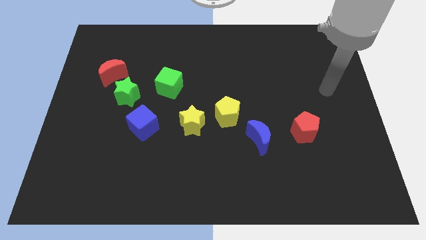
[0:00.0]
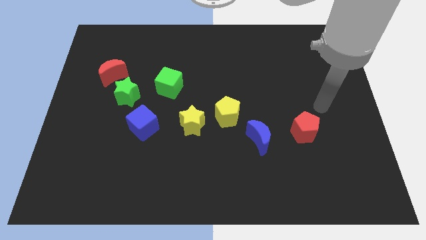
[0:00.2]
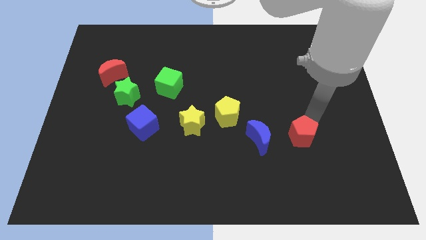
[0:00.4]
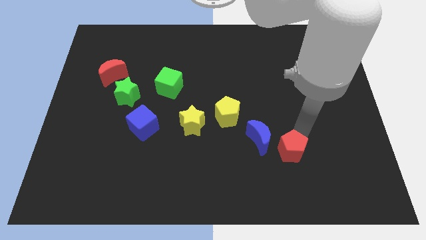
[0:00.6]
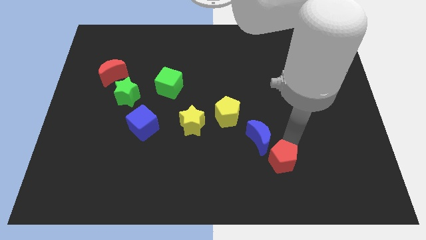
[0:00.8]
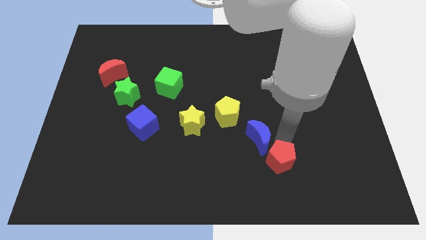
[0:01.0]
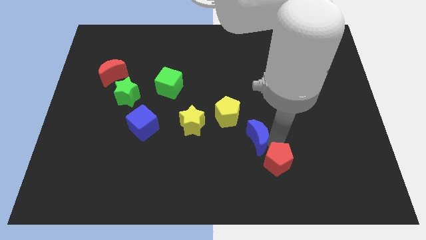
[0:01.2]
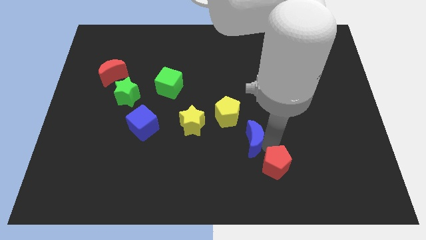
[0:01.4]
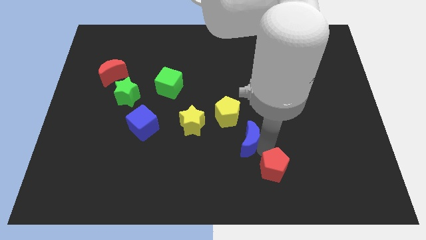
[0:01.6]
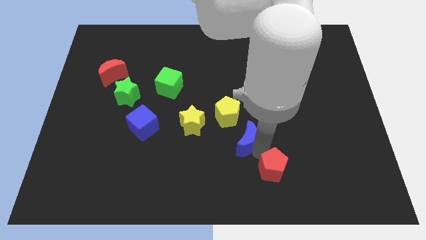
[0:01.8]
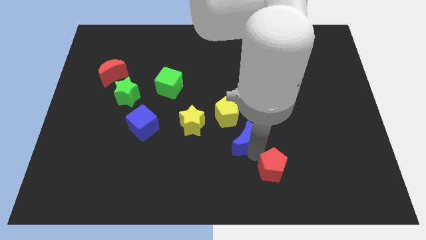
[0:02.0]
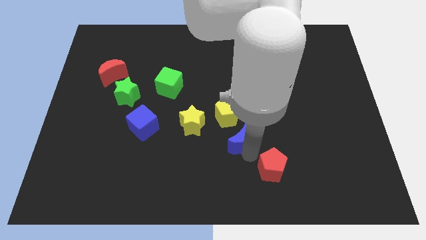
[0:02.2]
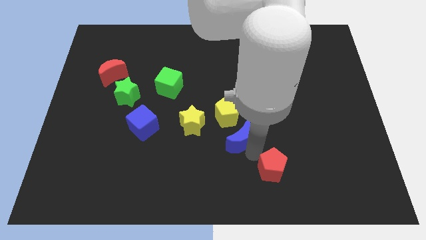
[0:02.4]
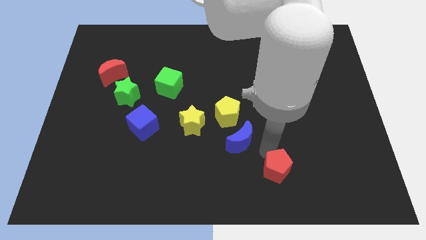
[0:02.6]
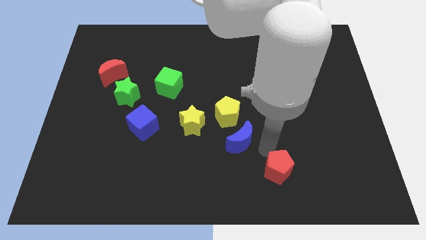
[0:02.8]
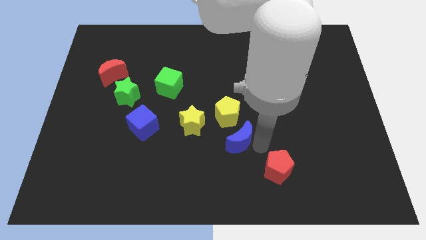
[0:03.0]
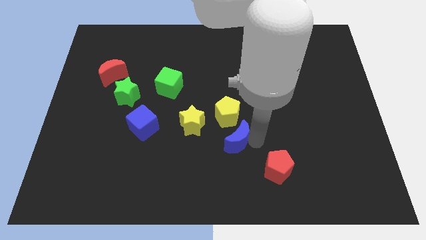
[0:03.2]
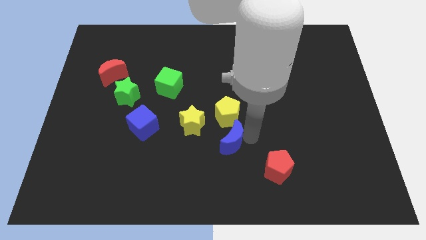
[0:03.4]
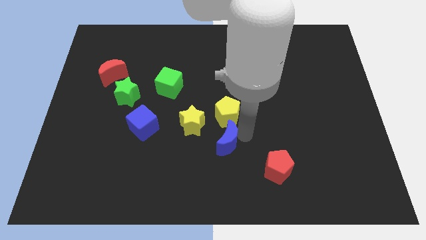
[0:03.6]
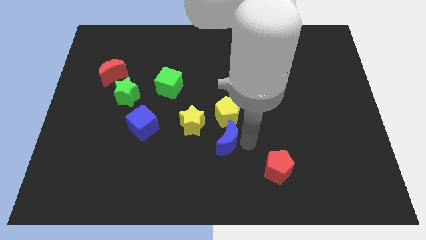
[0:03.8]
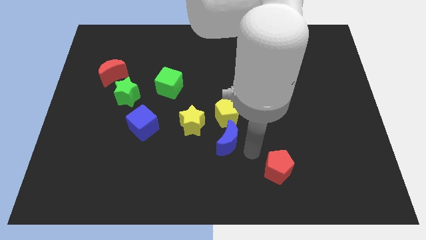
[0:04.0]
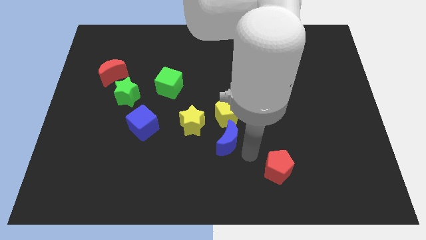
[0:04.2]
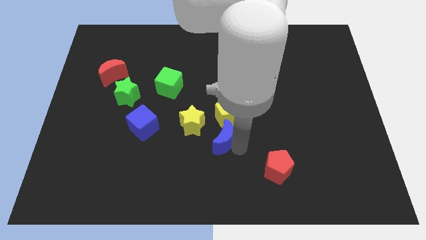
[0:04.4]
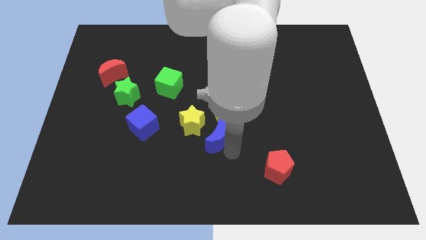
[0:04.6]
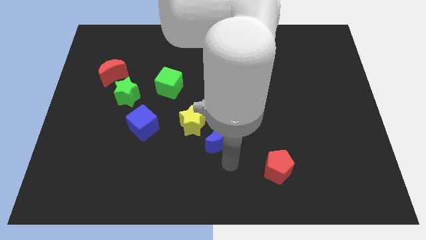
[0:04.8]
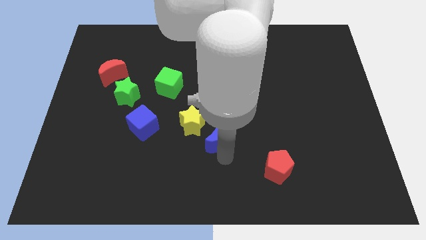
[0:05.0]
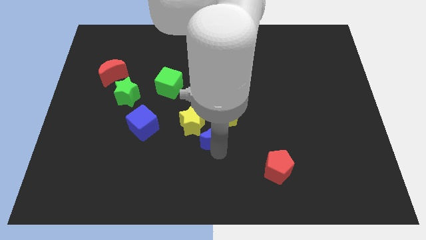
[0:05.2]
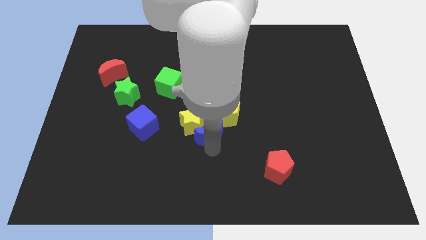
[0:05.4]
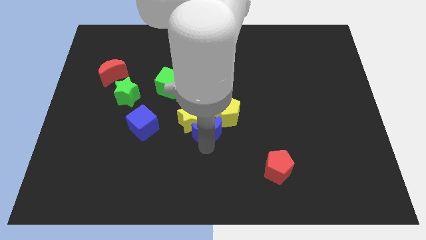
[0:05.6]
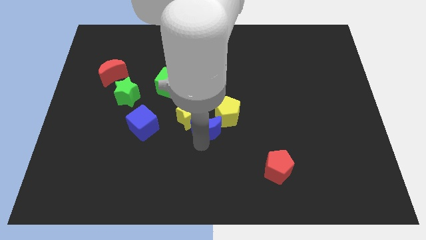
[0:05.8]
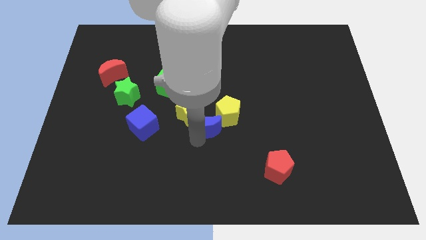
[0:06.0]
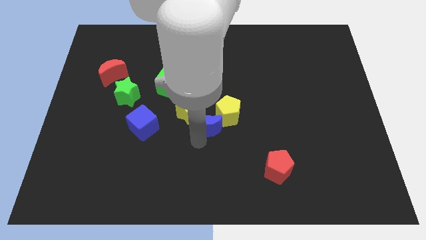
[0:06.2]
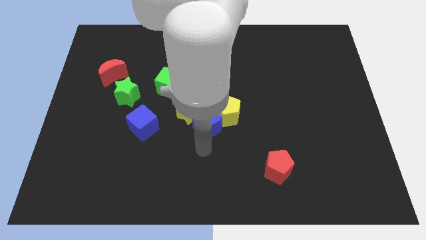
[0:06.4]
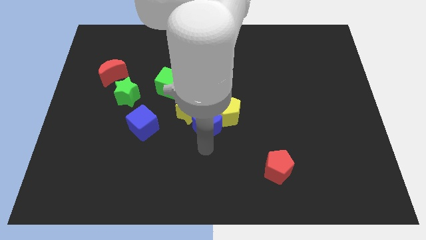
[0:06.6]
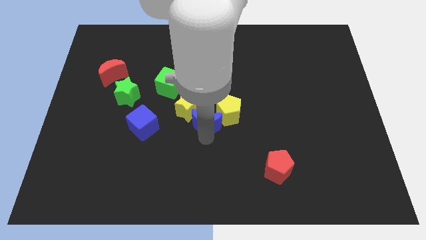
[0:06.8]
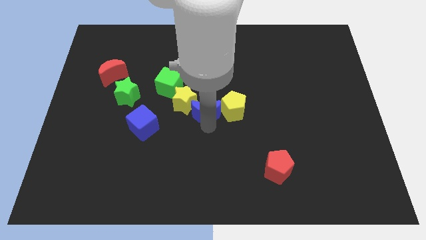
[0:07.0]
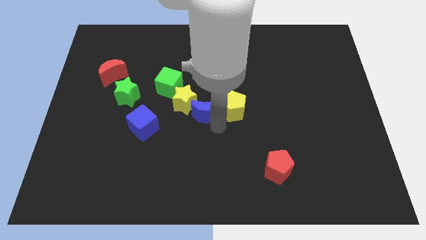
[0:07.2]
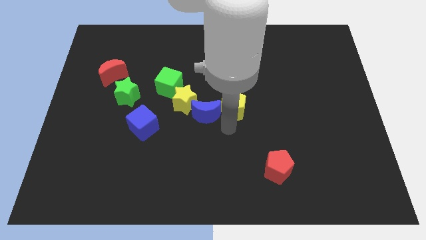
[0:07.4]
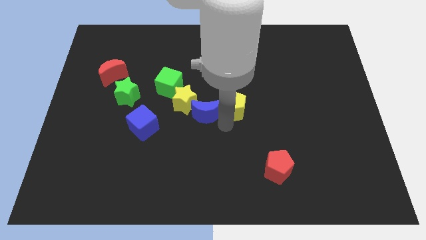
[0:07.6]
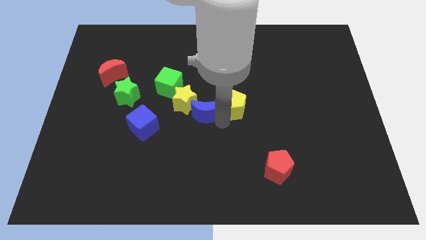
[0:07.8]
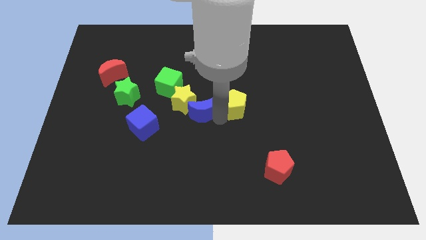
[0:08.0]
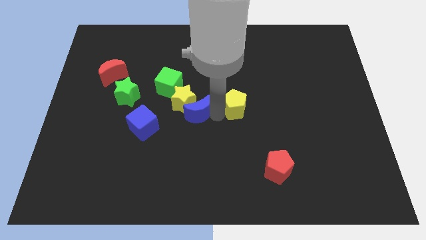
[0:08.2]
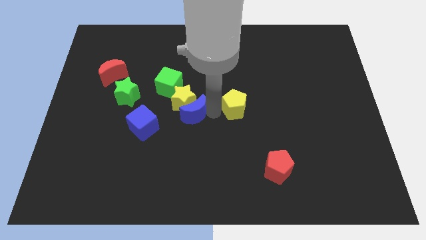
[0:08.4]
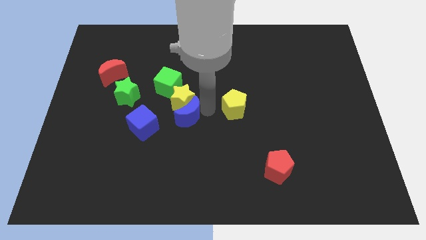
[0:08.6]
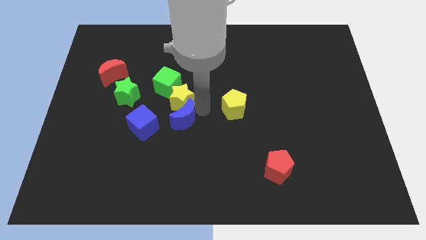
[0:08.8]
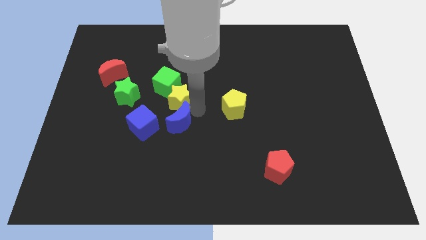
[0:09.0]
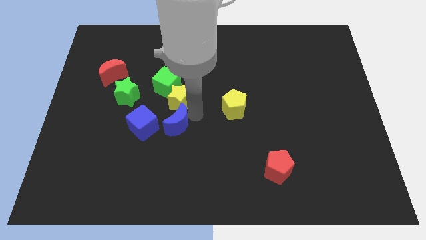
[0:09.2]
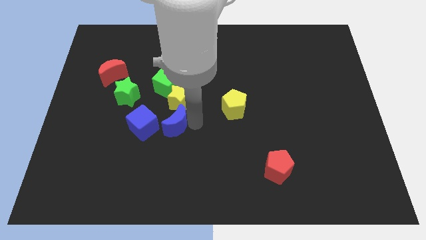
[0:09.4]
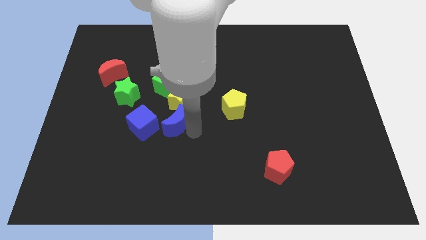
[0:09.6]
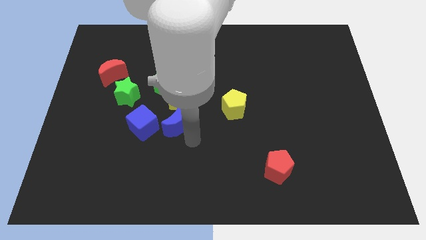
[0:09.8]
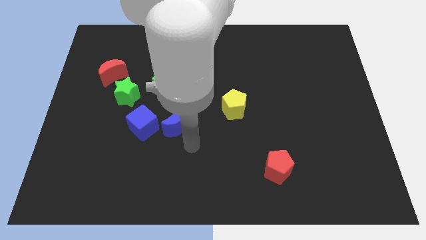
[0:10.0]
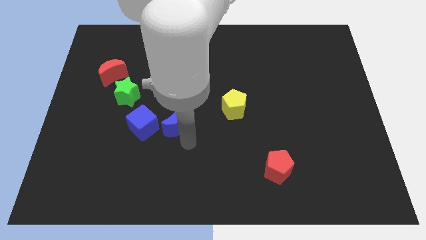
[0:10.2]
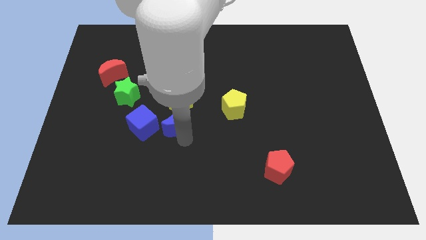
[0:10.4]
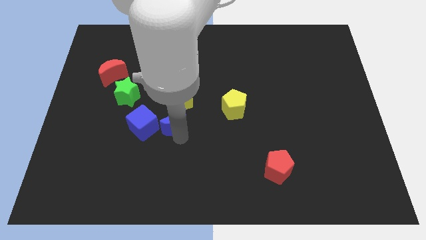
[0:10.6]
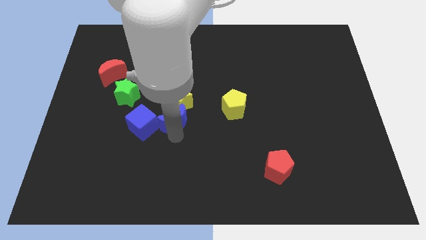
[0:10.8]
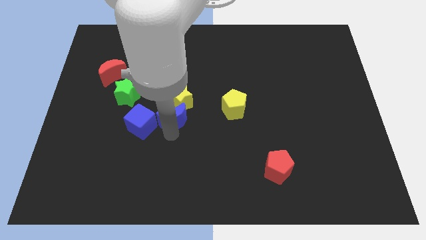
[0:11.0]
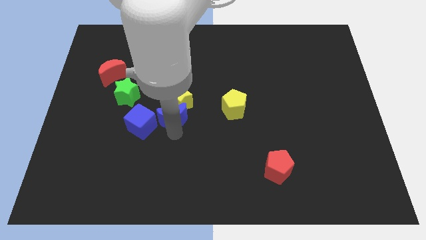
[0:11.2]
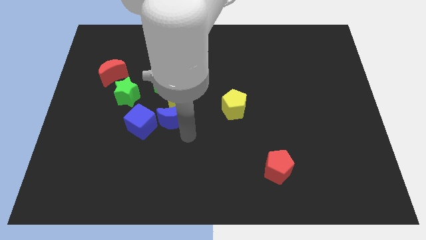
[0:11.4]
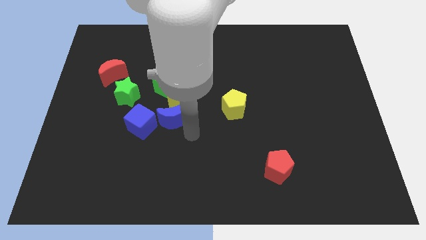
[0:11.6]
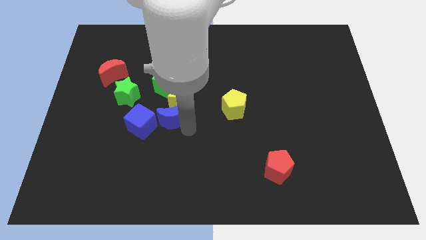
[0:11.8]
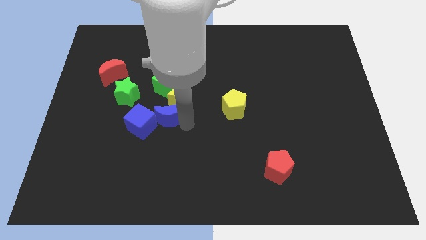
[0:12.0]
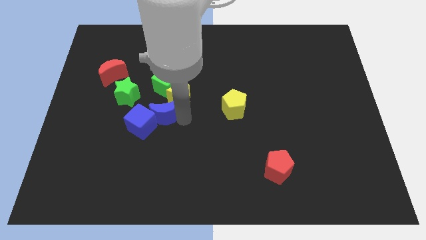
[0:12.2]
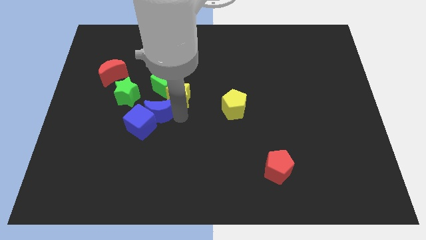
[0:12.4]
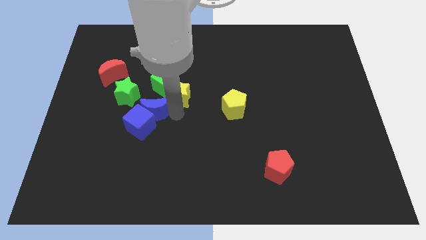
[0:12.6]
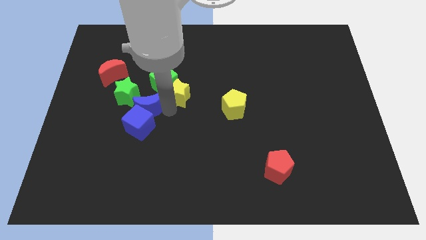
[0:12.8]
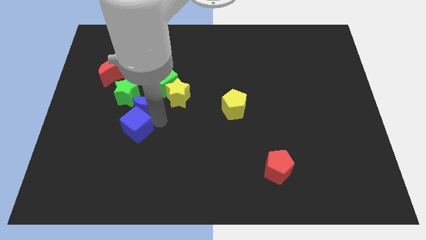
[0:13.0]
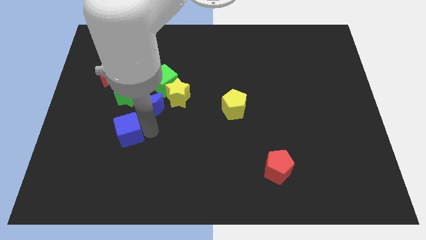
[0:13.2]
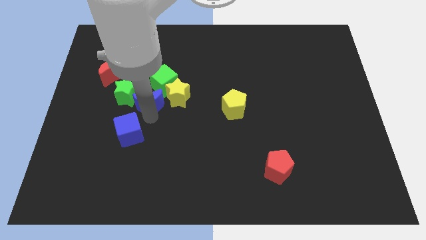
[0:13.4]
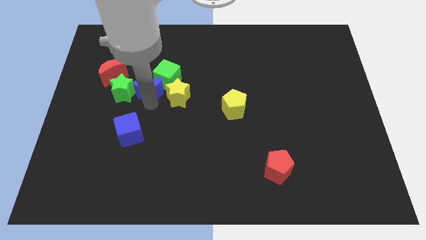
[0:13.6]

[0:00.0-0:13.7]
move the blue moon to the top right side of the green star
